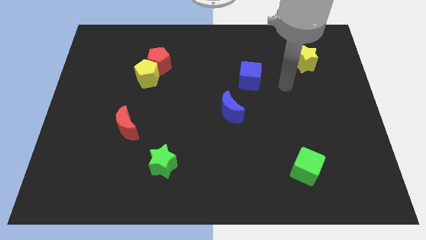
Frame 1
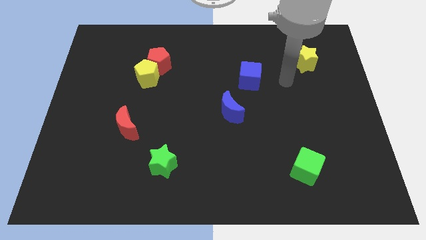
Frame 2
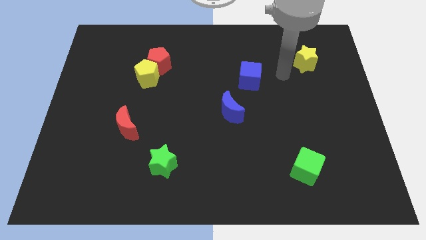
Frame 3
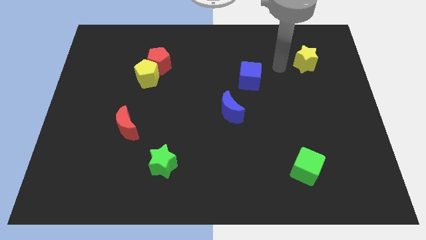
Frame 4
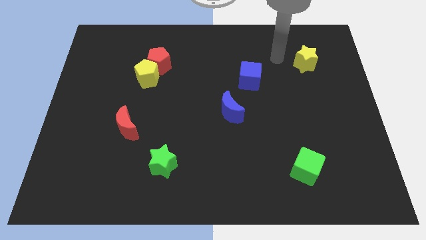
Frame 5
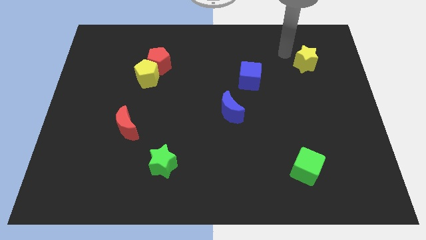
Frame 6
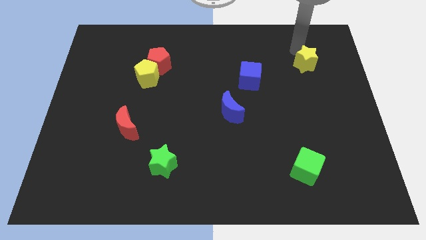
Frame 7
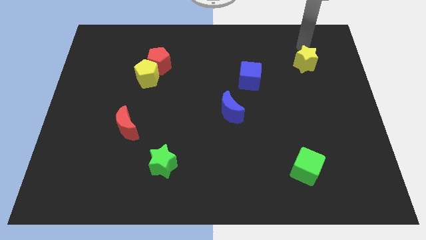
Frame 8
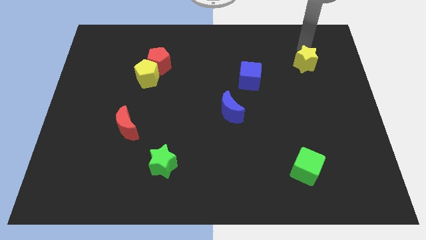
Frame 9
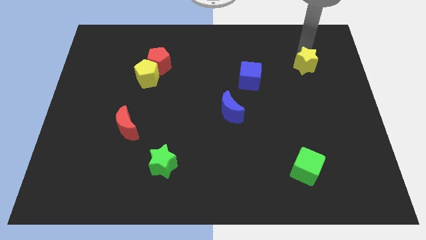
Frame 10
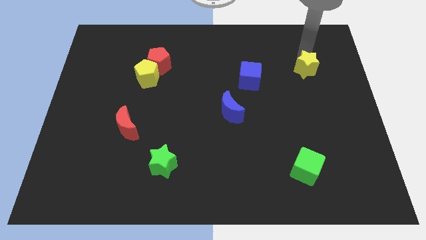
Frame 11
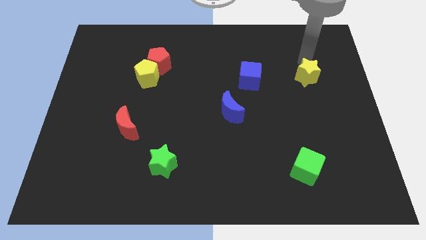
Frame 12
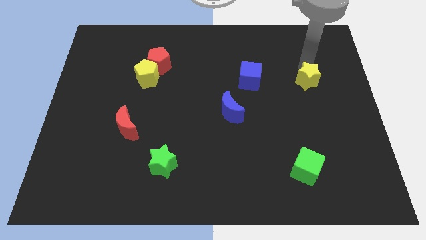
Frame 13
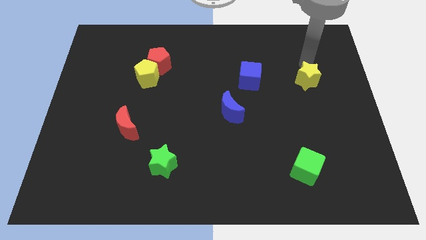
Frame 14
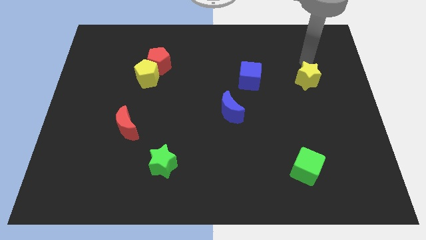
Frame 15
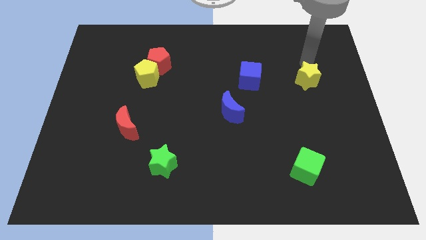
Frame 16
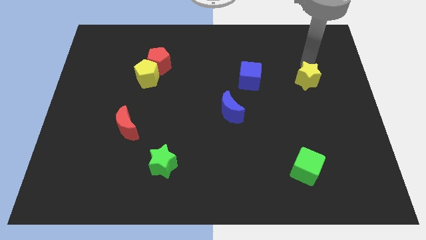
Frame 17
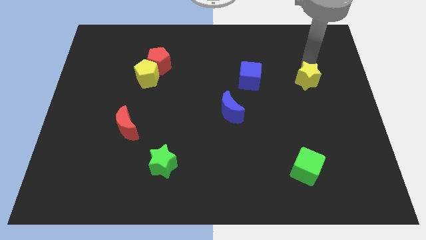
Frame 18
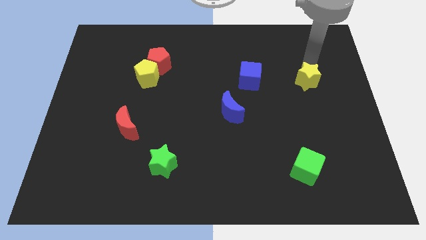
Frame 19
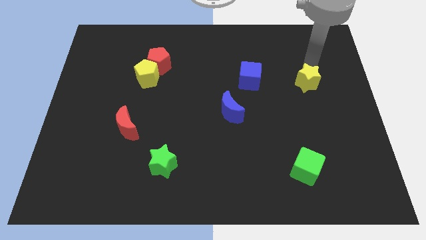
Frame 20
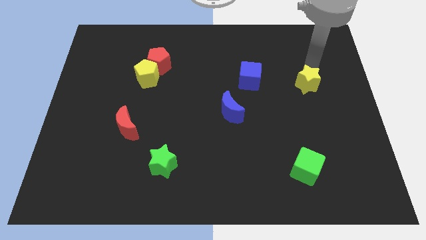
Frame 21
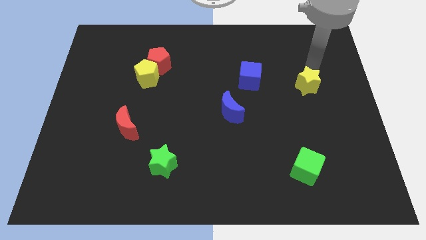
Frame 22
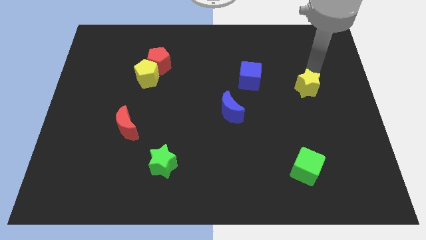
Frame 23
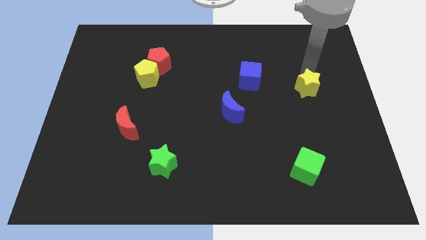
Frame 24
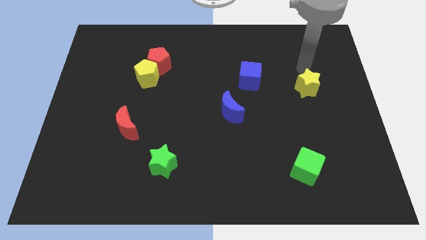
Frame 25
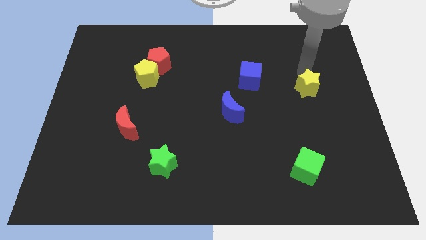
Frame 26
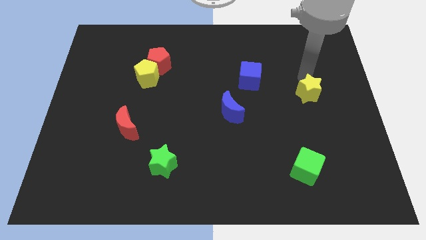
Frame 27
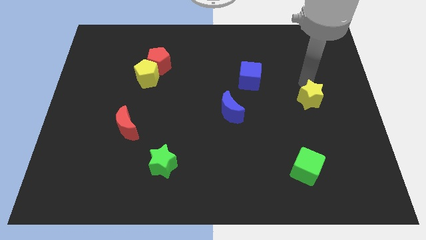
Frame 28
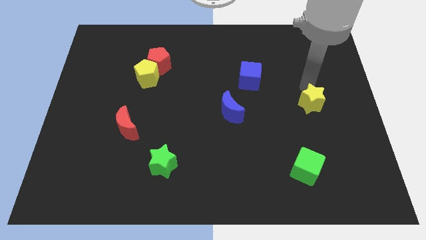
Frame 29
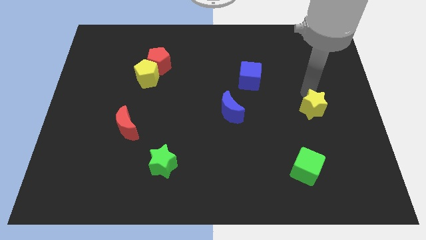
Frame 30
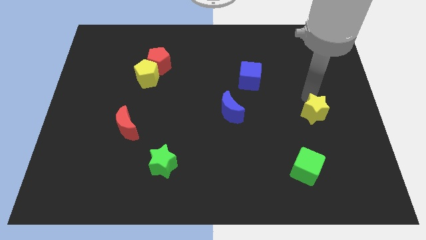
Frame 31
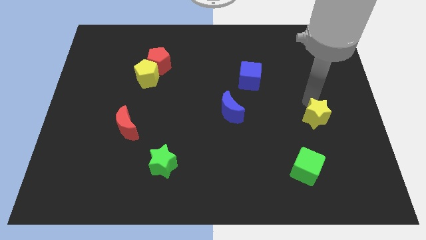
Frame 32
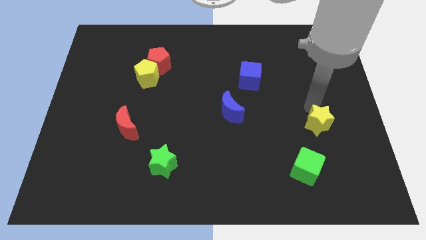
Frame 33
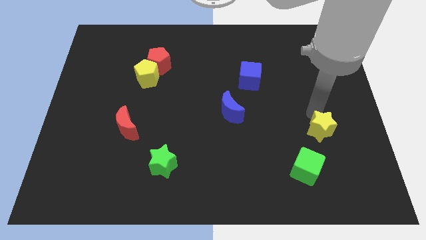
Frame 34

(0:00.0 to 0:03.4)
move the yellow star downwards

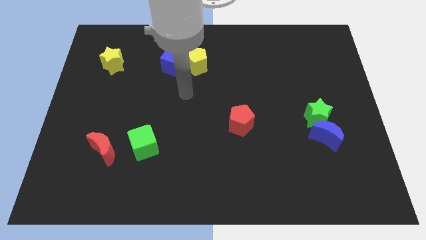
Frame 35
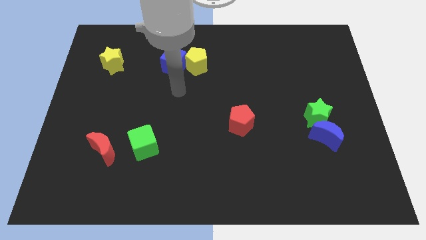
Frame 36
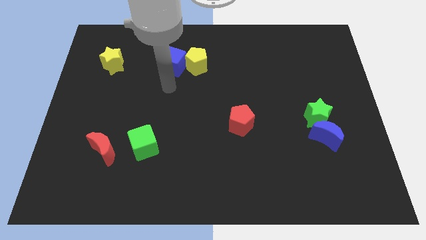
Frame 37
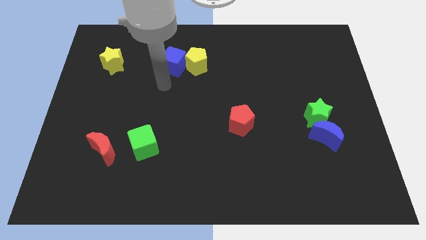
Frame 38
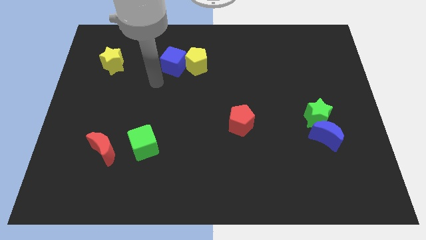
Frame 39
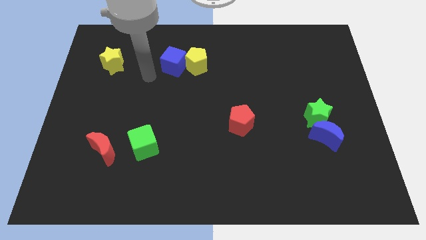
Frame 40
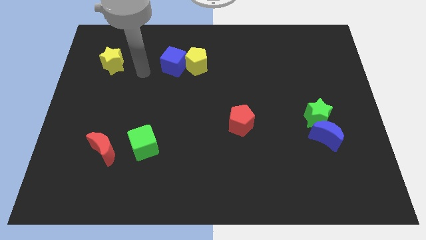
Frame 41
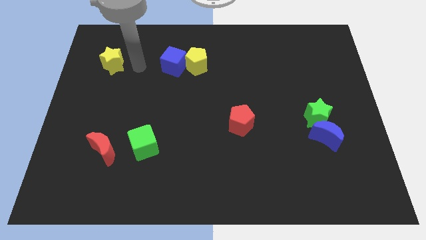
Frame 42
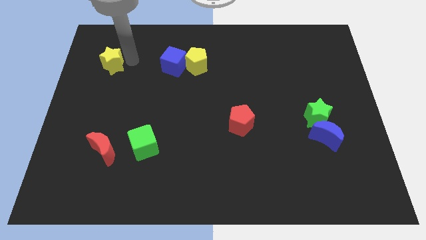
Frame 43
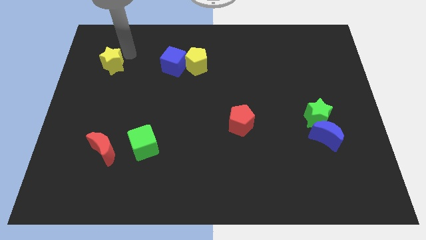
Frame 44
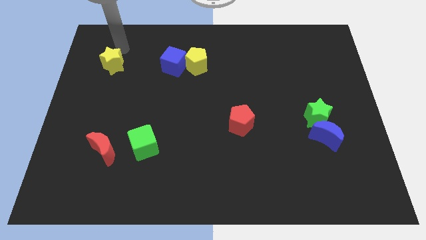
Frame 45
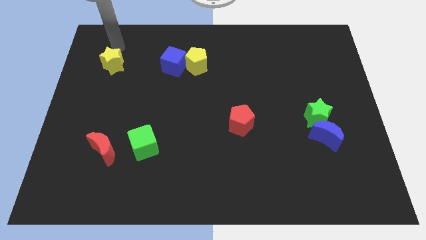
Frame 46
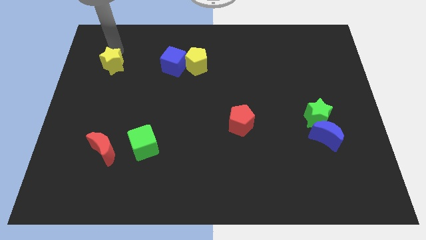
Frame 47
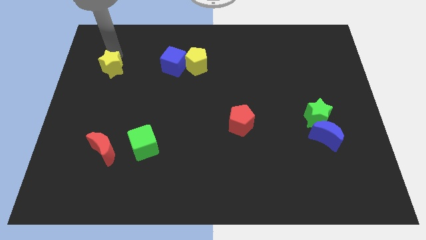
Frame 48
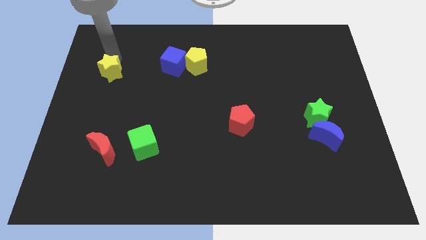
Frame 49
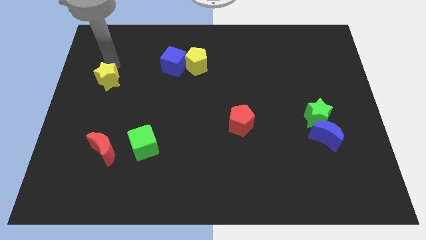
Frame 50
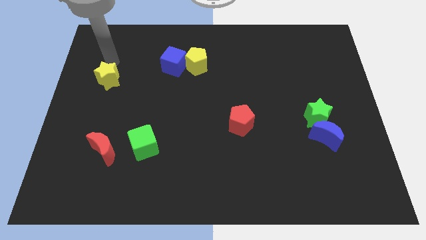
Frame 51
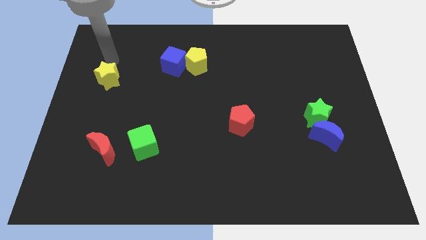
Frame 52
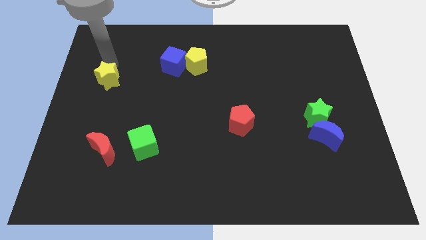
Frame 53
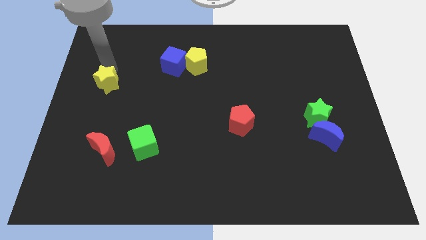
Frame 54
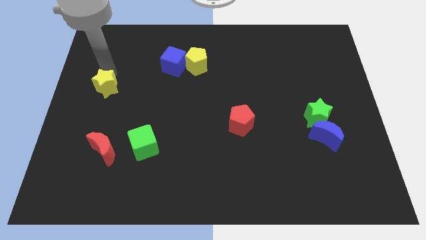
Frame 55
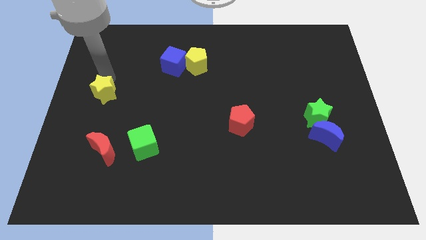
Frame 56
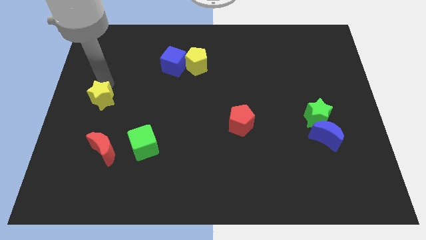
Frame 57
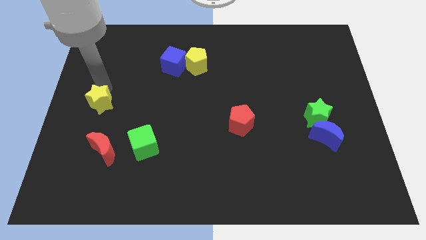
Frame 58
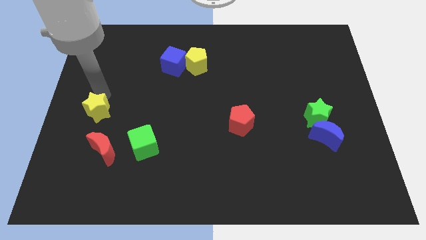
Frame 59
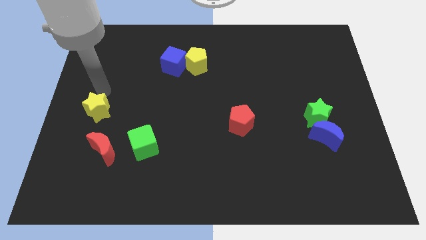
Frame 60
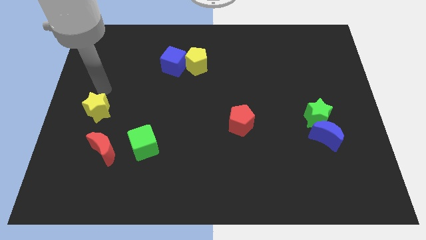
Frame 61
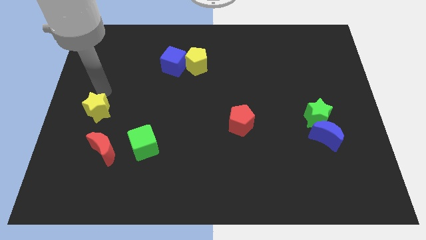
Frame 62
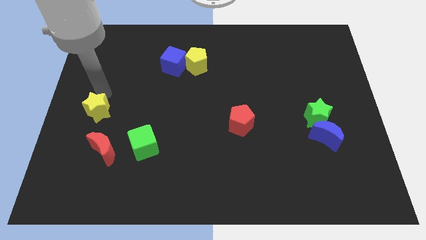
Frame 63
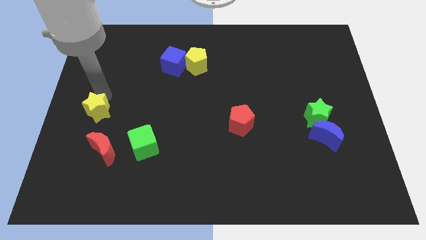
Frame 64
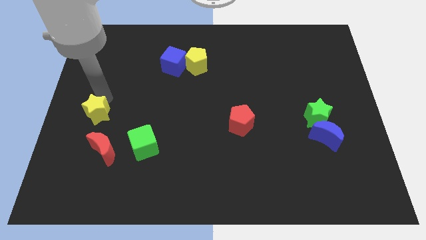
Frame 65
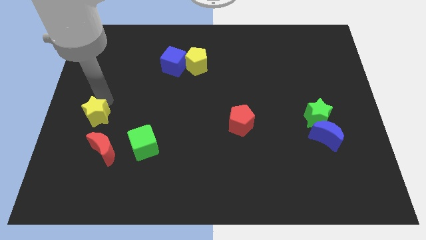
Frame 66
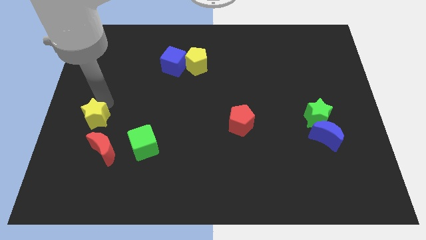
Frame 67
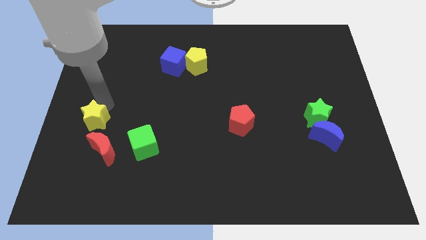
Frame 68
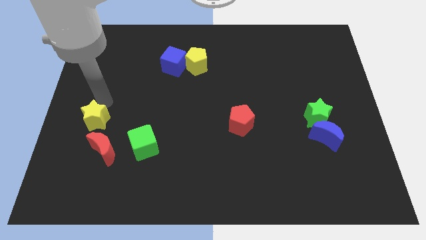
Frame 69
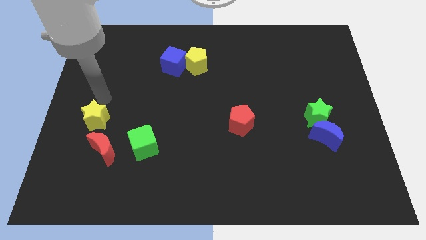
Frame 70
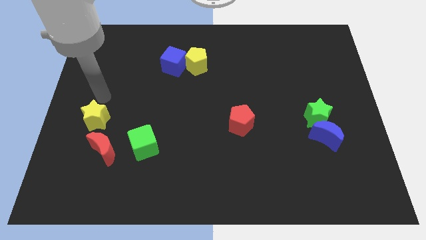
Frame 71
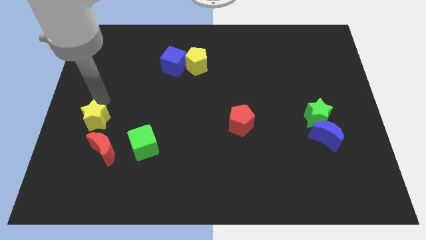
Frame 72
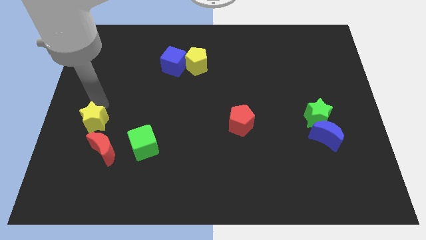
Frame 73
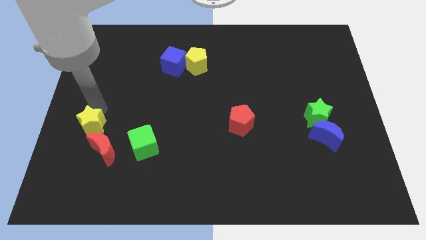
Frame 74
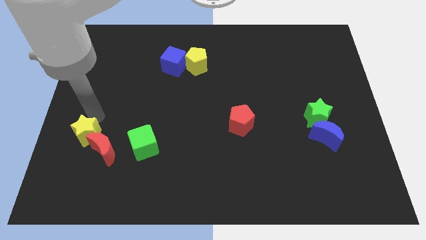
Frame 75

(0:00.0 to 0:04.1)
push the yellow star downwards

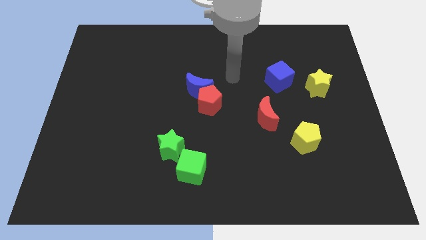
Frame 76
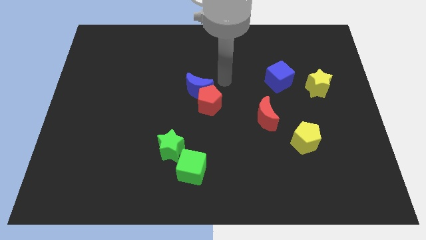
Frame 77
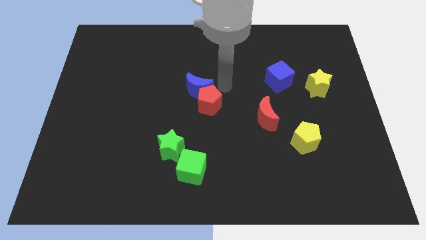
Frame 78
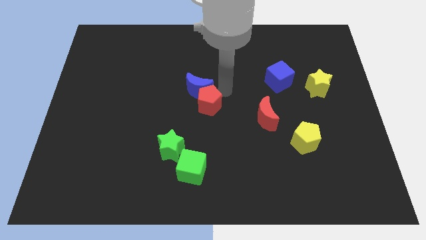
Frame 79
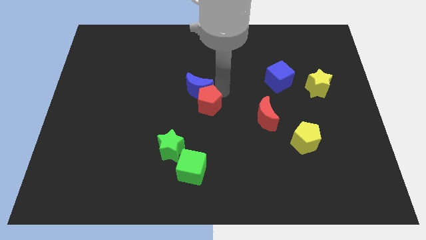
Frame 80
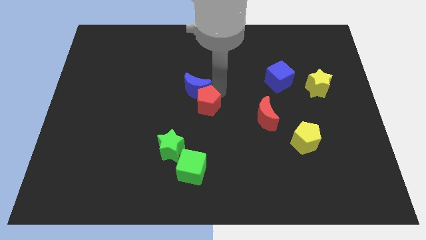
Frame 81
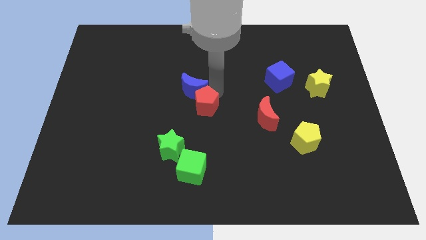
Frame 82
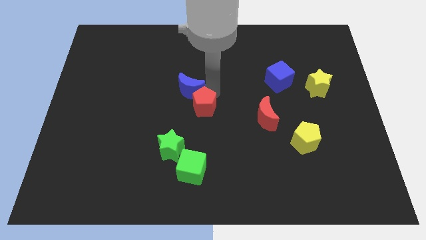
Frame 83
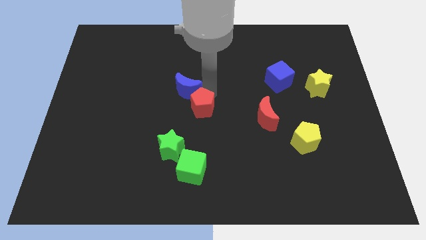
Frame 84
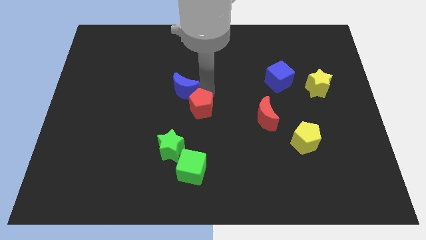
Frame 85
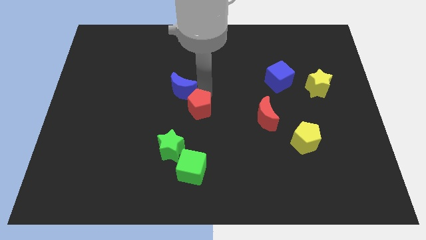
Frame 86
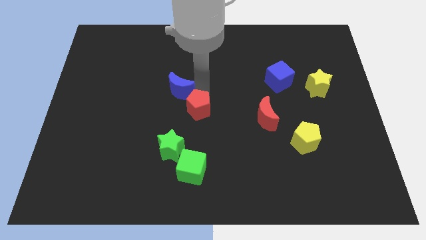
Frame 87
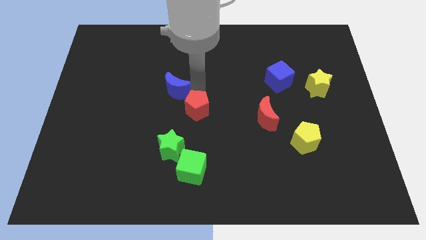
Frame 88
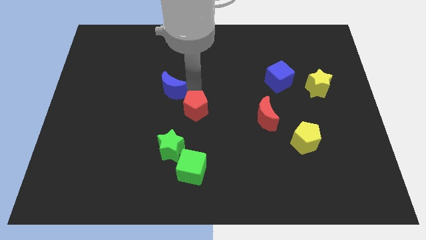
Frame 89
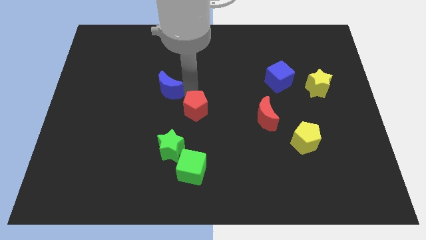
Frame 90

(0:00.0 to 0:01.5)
slightly push the blue moon to the left
